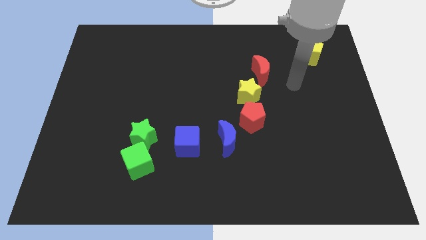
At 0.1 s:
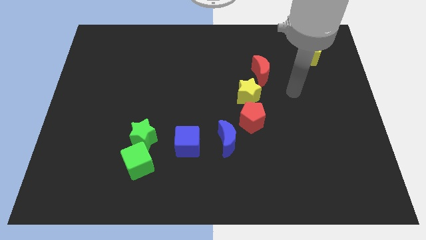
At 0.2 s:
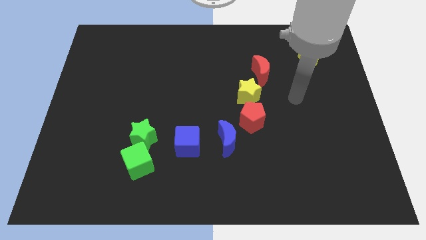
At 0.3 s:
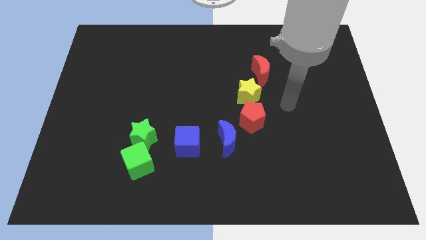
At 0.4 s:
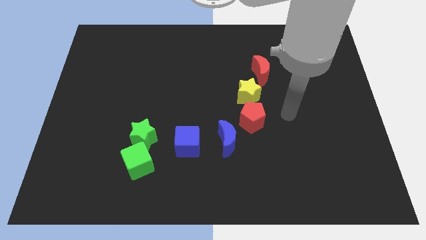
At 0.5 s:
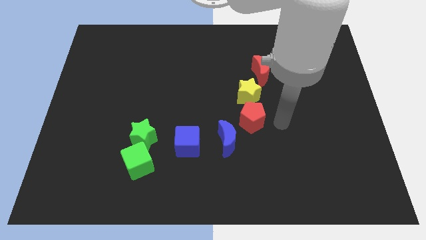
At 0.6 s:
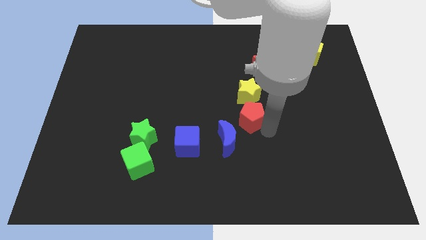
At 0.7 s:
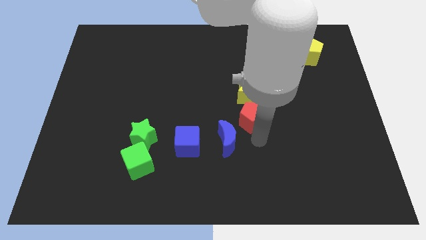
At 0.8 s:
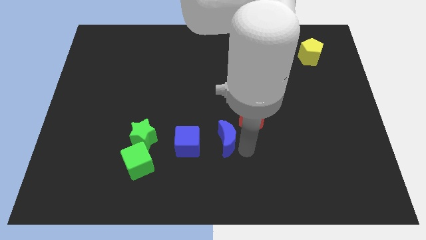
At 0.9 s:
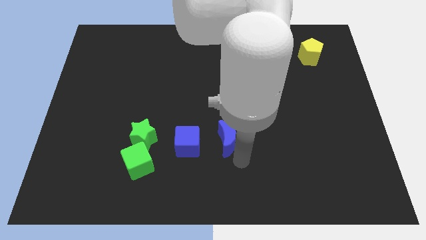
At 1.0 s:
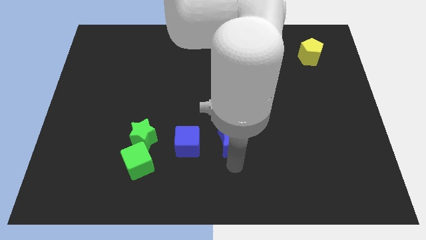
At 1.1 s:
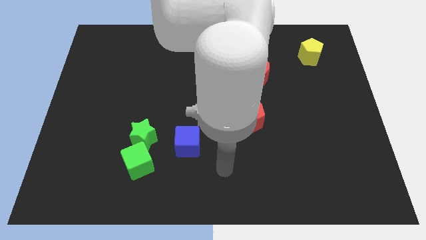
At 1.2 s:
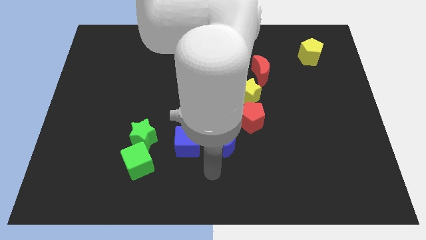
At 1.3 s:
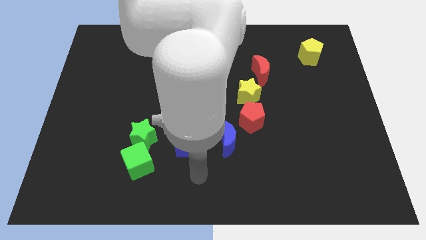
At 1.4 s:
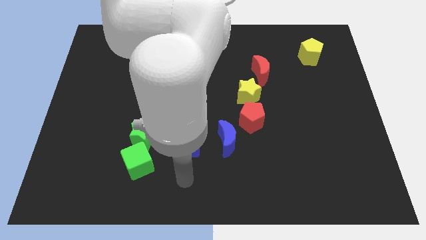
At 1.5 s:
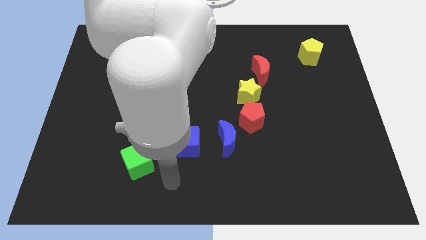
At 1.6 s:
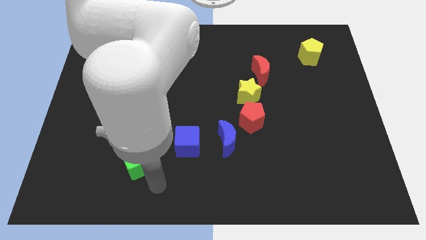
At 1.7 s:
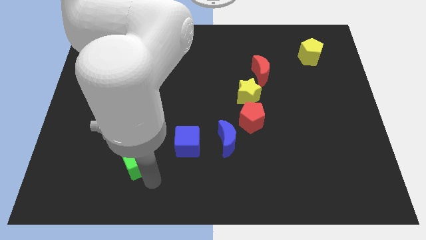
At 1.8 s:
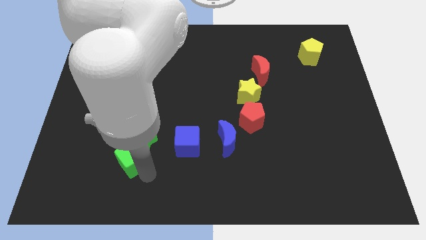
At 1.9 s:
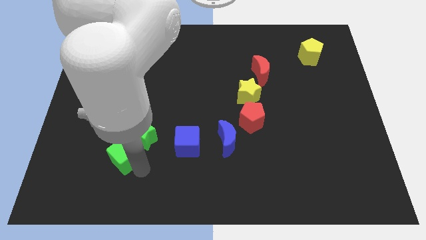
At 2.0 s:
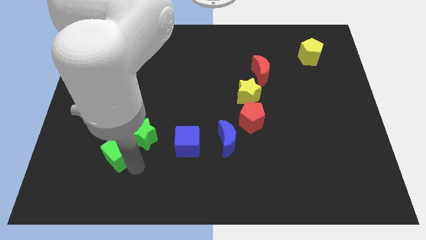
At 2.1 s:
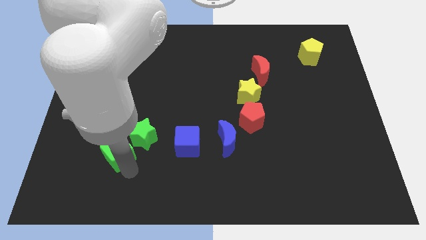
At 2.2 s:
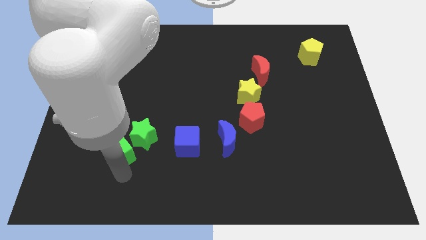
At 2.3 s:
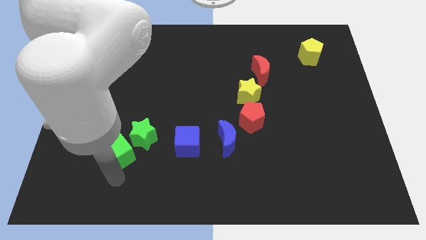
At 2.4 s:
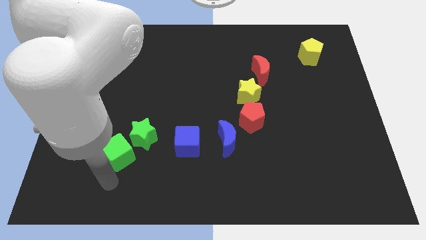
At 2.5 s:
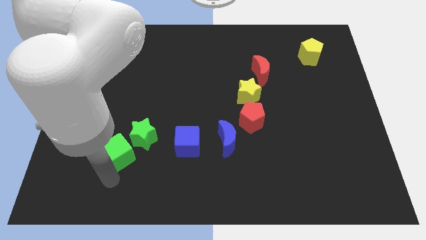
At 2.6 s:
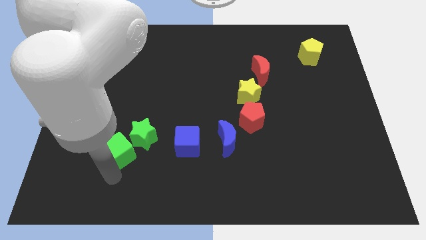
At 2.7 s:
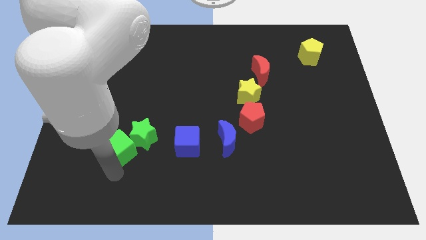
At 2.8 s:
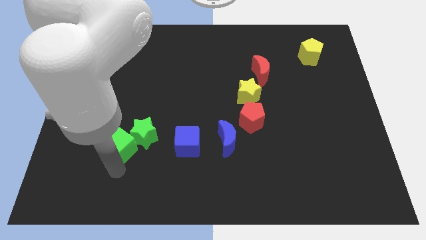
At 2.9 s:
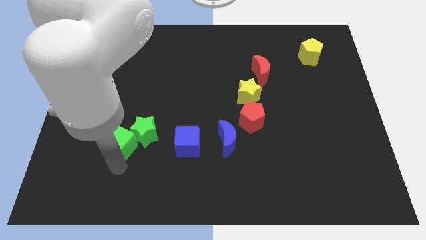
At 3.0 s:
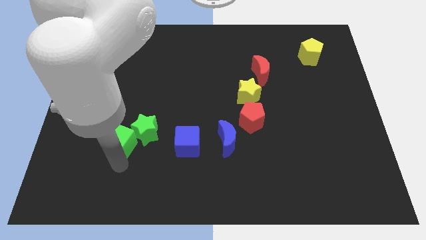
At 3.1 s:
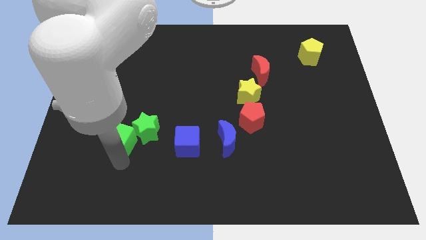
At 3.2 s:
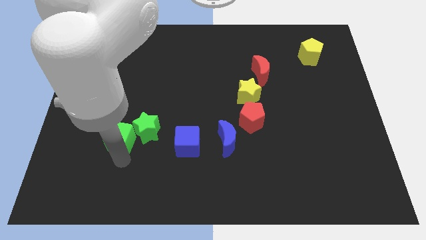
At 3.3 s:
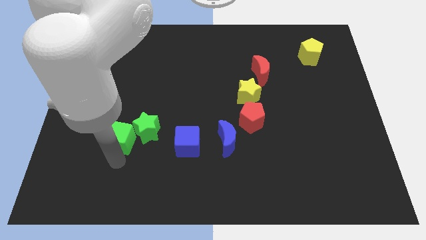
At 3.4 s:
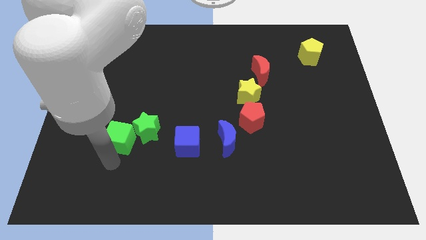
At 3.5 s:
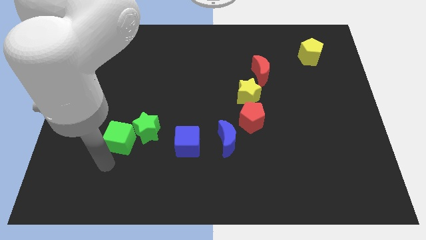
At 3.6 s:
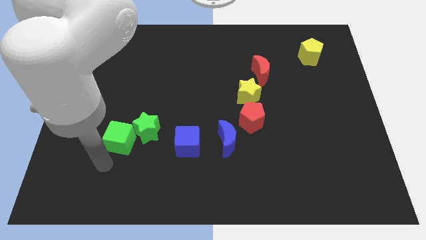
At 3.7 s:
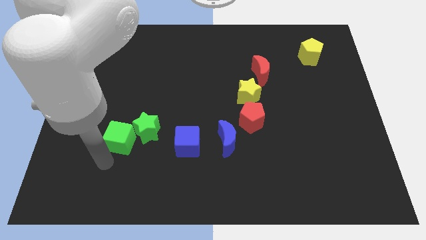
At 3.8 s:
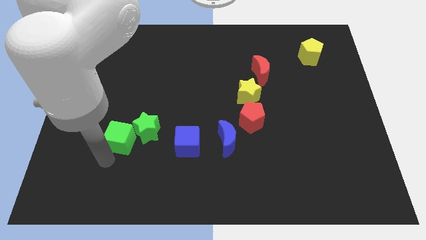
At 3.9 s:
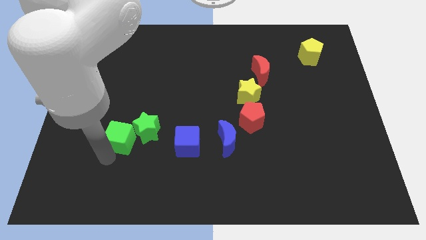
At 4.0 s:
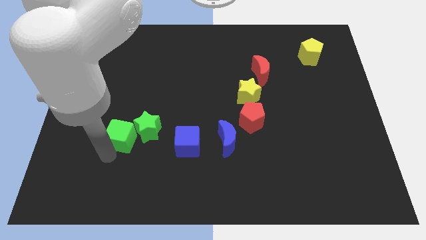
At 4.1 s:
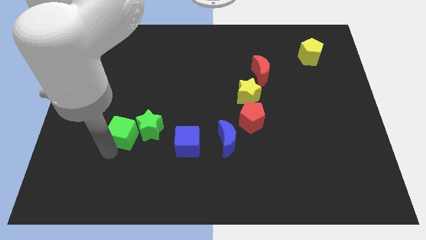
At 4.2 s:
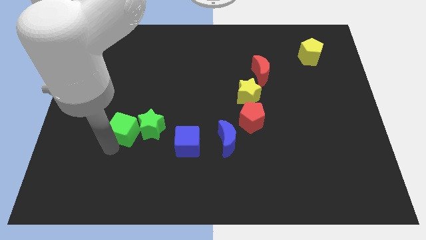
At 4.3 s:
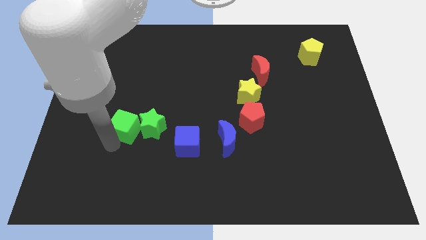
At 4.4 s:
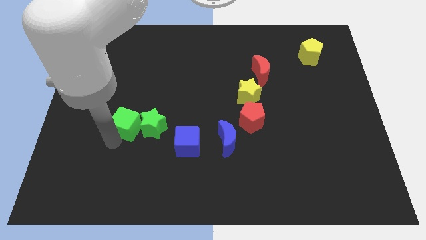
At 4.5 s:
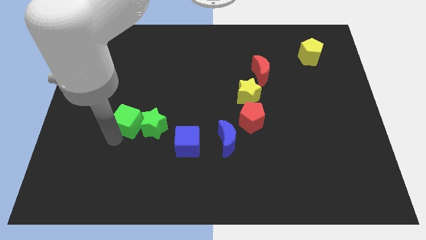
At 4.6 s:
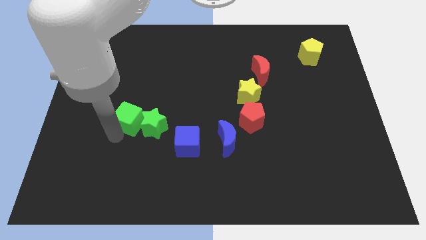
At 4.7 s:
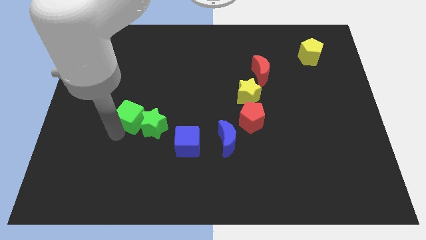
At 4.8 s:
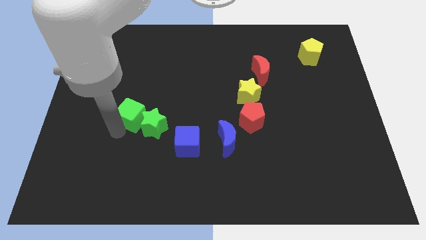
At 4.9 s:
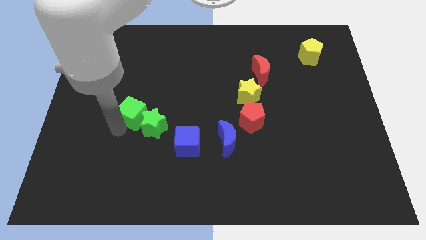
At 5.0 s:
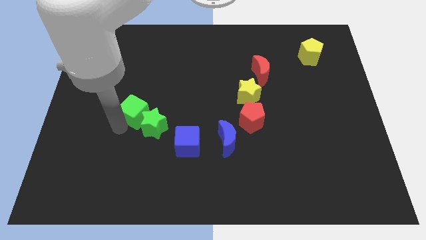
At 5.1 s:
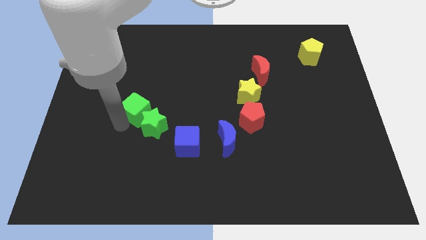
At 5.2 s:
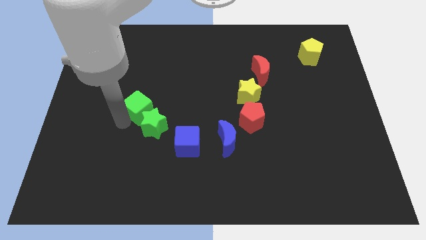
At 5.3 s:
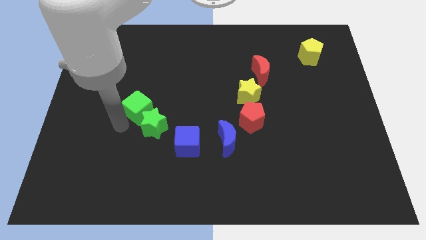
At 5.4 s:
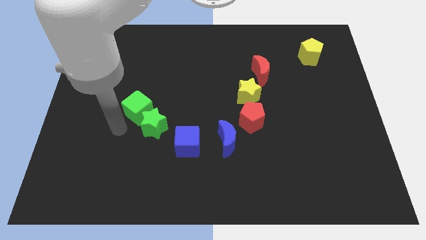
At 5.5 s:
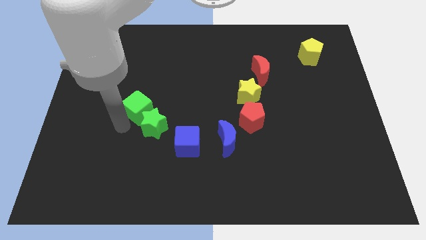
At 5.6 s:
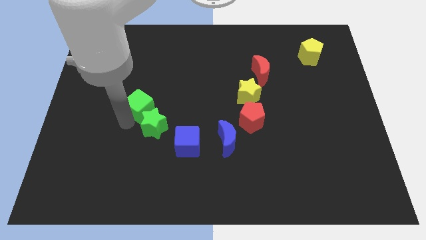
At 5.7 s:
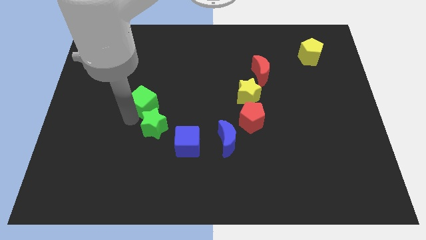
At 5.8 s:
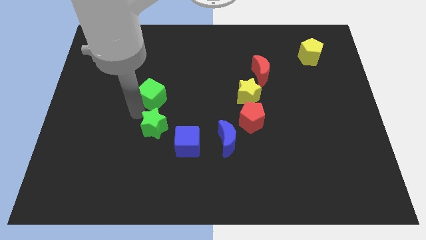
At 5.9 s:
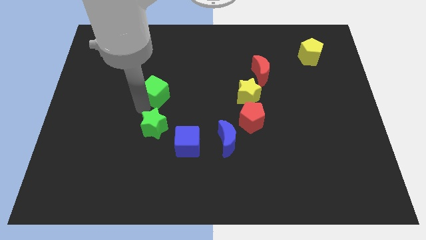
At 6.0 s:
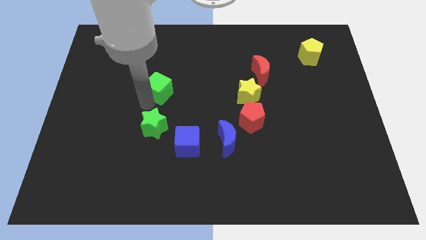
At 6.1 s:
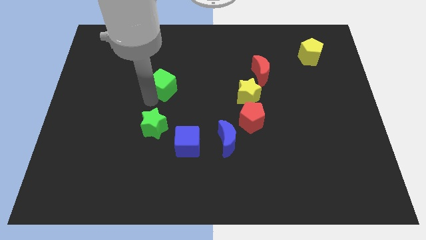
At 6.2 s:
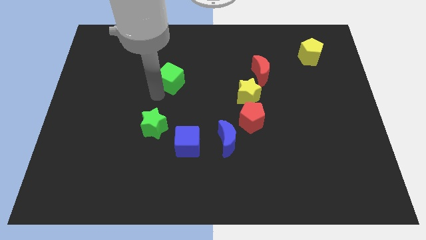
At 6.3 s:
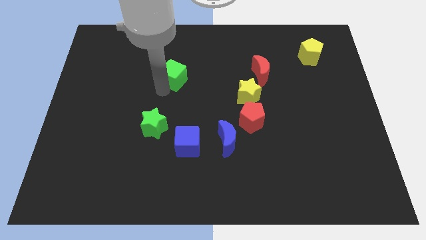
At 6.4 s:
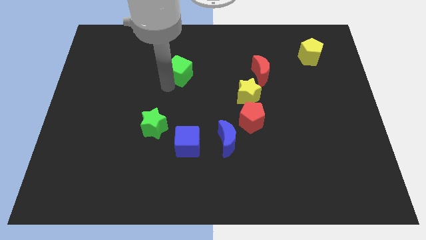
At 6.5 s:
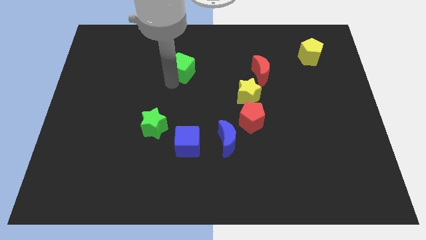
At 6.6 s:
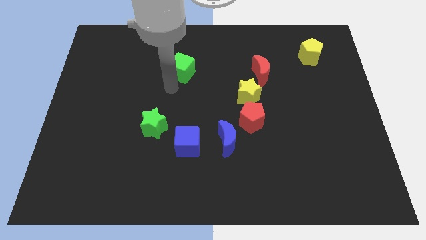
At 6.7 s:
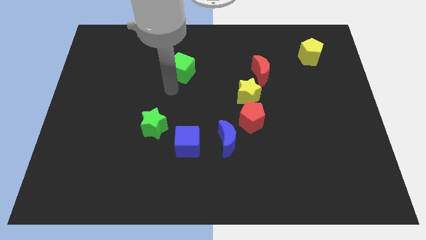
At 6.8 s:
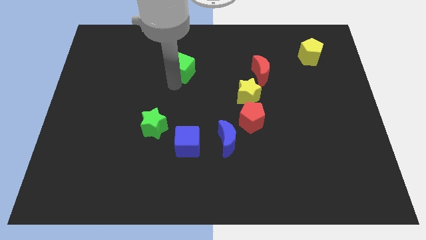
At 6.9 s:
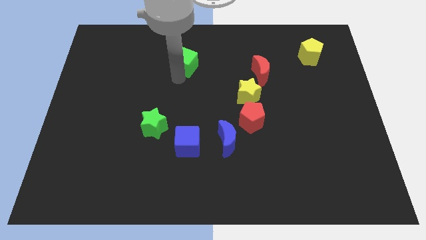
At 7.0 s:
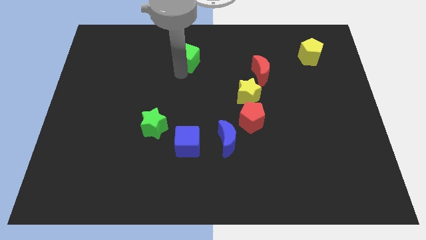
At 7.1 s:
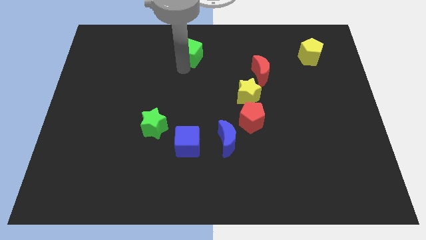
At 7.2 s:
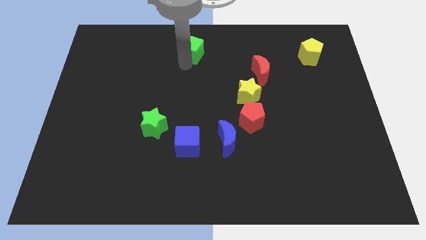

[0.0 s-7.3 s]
put the green cube to the towards your base
